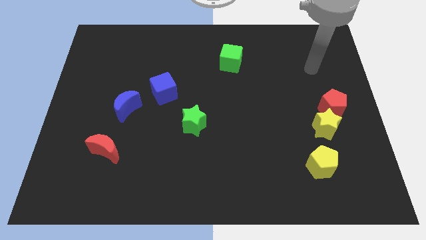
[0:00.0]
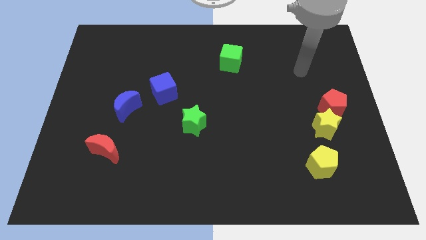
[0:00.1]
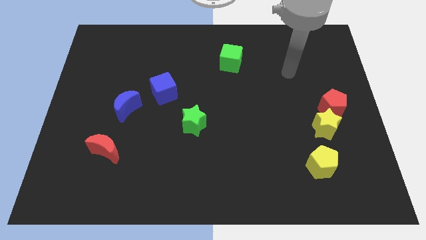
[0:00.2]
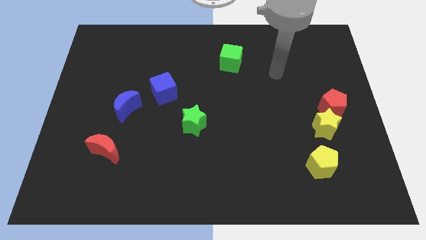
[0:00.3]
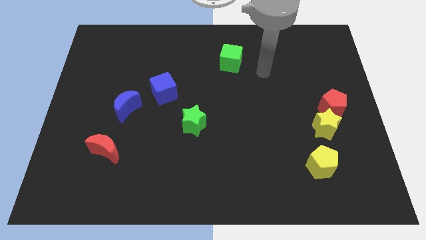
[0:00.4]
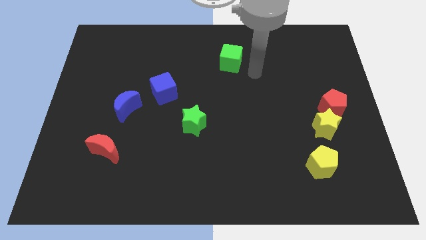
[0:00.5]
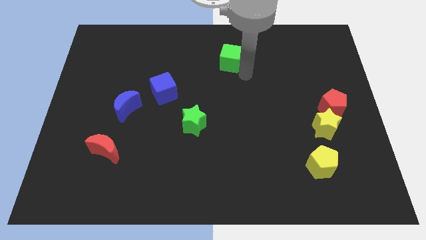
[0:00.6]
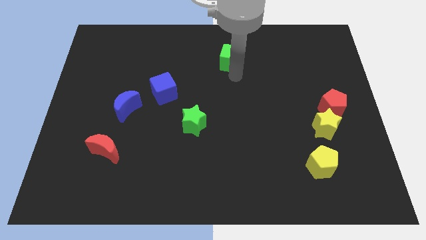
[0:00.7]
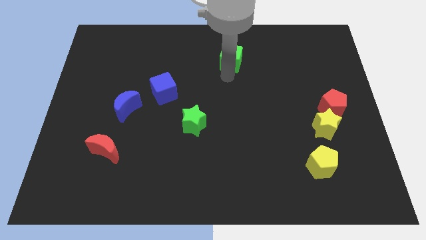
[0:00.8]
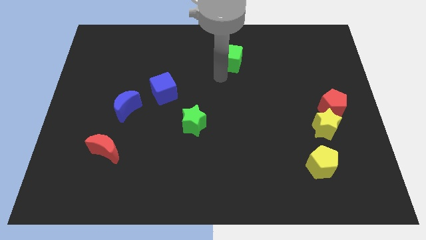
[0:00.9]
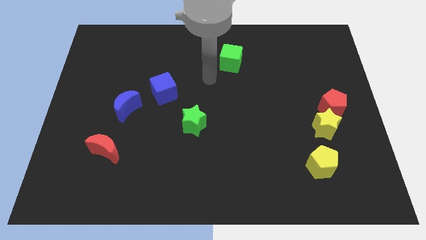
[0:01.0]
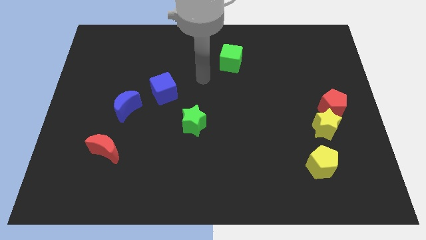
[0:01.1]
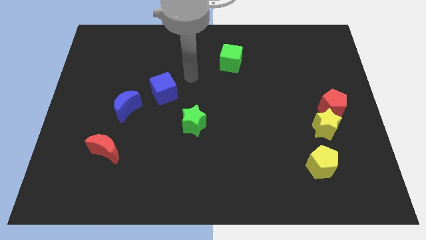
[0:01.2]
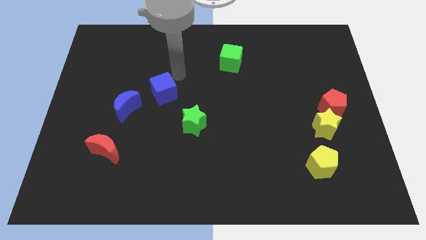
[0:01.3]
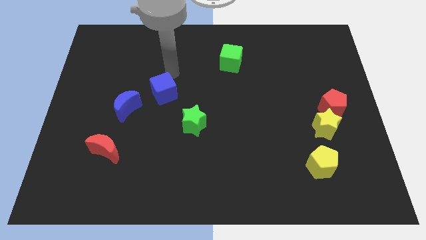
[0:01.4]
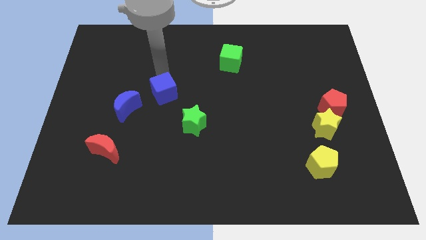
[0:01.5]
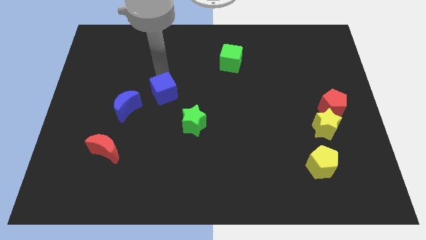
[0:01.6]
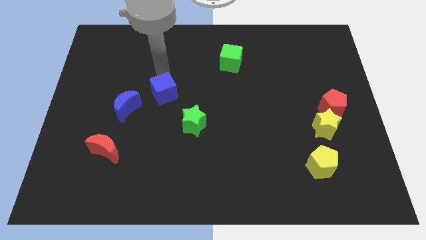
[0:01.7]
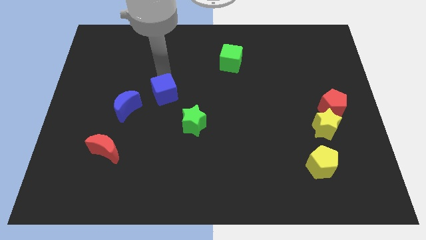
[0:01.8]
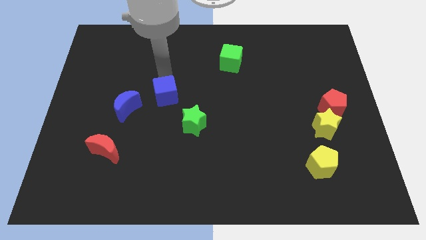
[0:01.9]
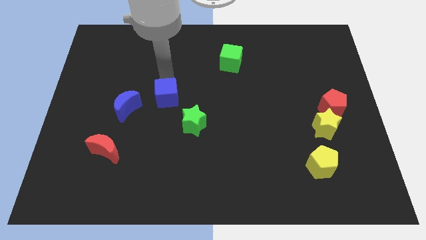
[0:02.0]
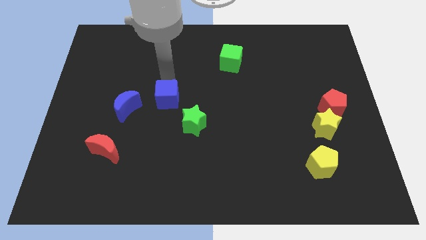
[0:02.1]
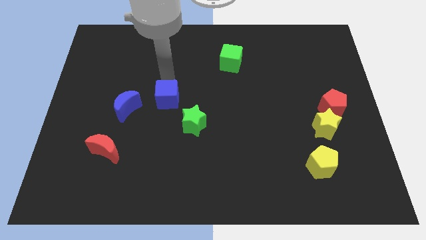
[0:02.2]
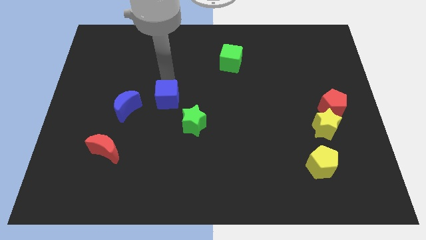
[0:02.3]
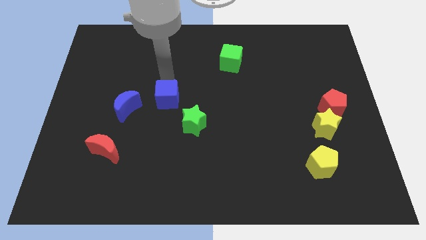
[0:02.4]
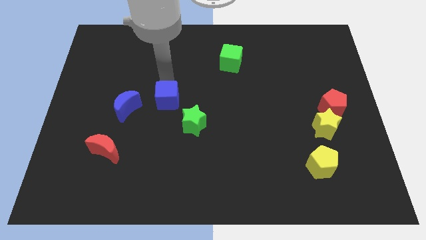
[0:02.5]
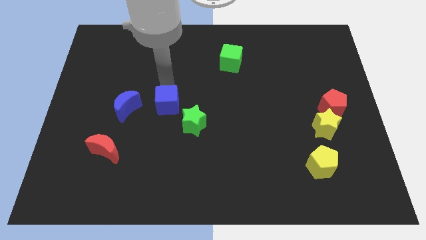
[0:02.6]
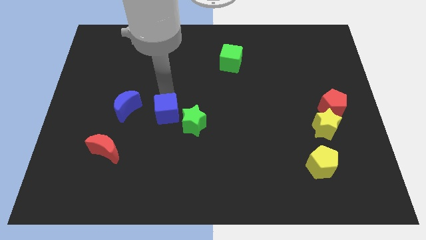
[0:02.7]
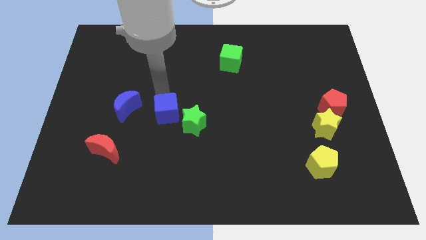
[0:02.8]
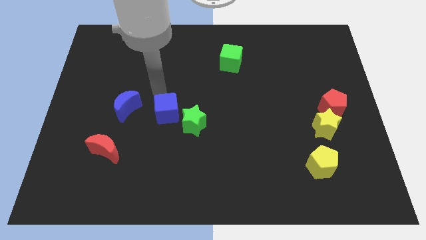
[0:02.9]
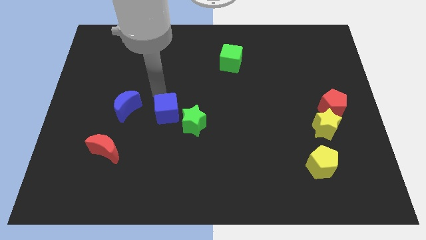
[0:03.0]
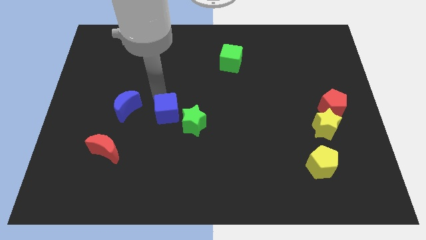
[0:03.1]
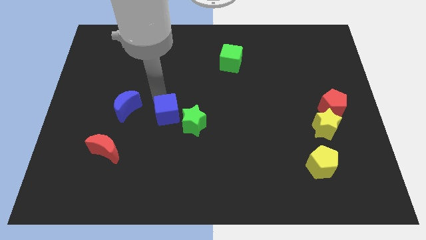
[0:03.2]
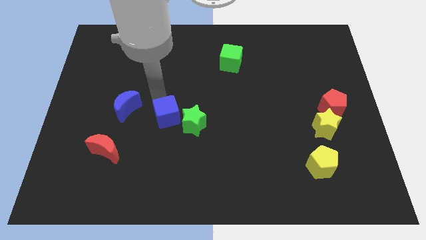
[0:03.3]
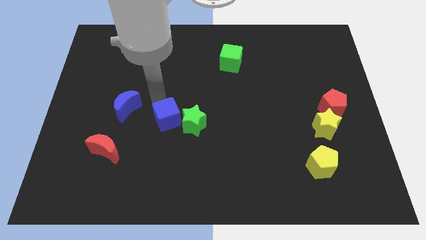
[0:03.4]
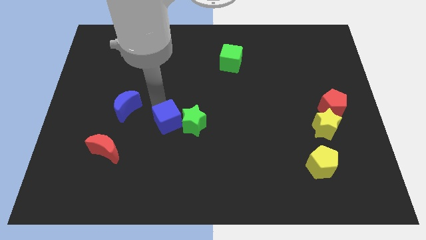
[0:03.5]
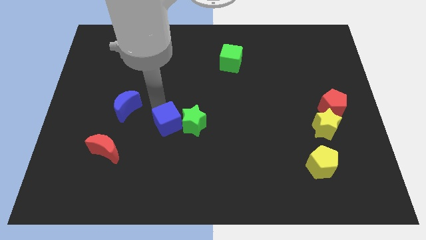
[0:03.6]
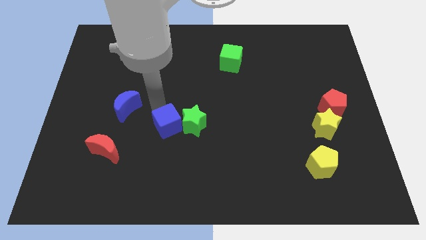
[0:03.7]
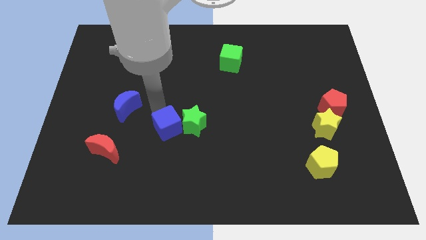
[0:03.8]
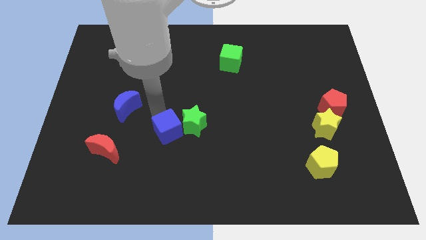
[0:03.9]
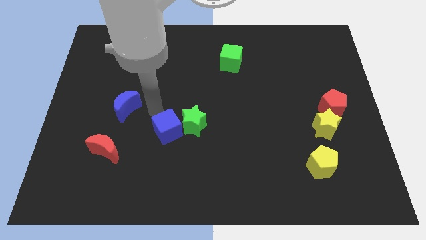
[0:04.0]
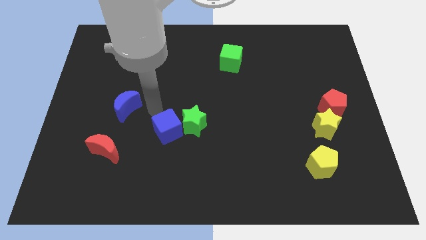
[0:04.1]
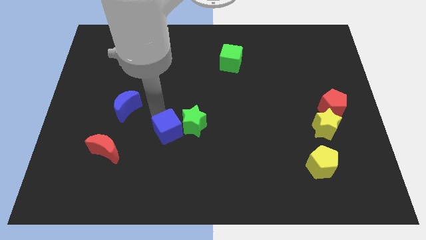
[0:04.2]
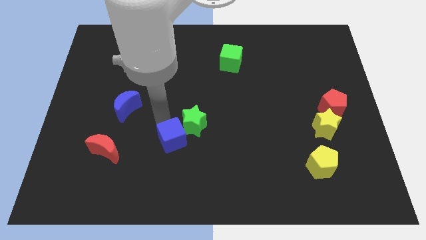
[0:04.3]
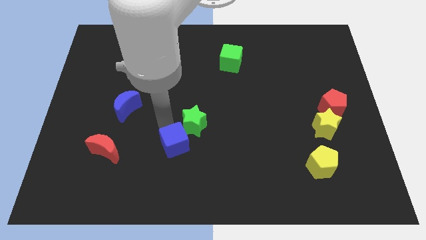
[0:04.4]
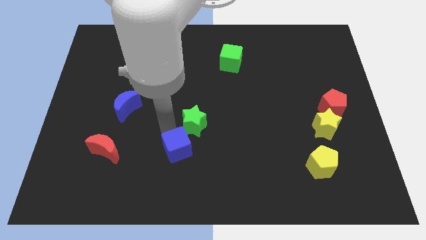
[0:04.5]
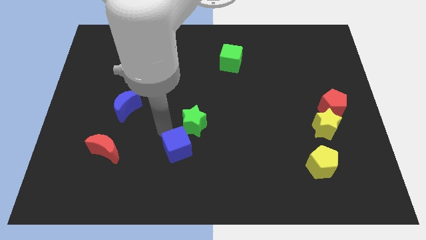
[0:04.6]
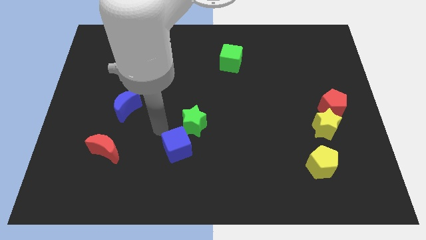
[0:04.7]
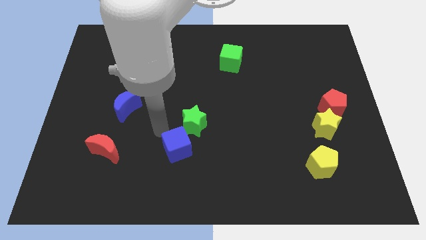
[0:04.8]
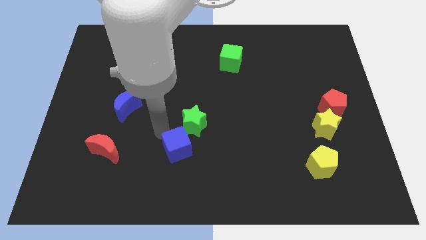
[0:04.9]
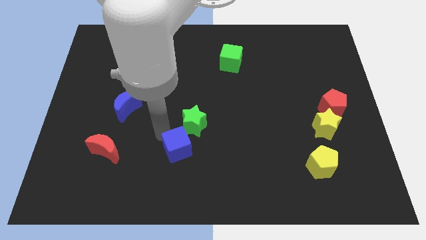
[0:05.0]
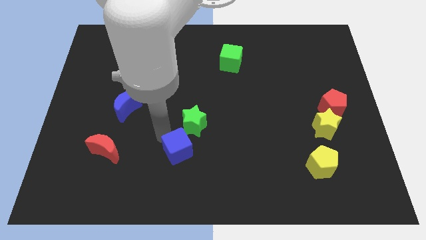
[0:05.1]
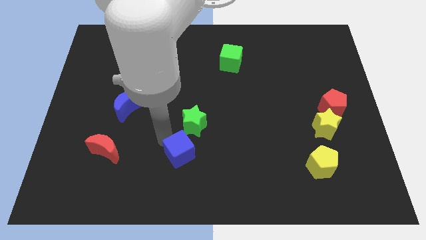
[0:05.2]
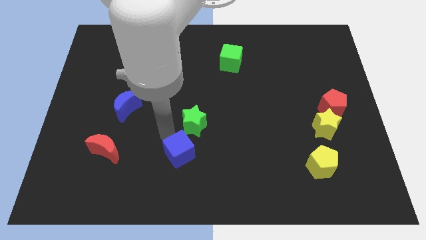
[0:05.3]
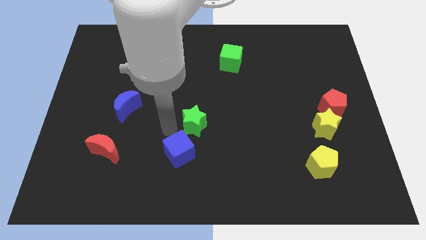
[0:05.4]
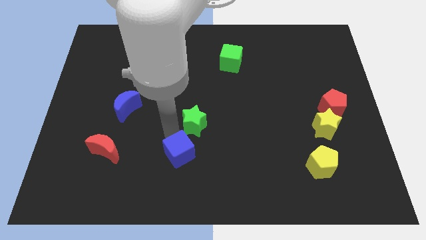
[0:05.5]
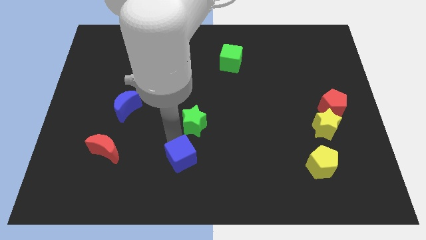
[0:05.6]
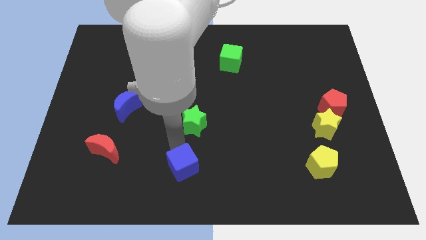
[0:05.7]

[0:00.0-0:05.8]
put the blue cube to the bottom side

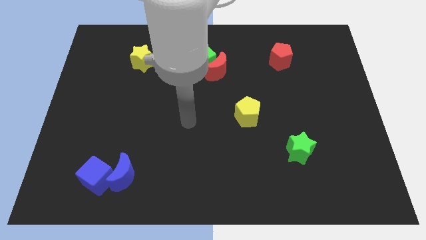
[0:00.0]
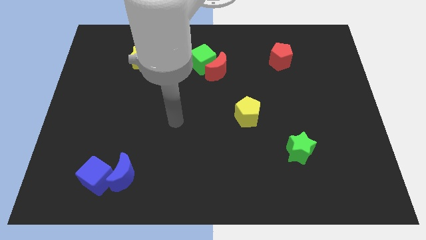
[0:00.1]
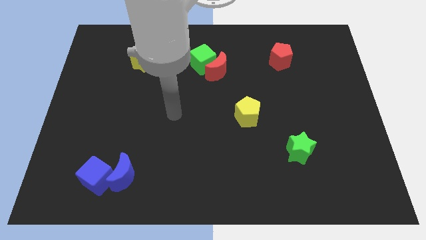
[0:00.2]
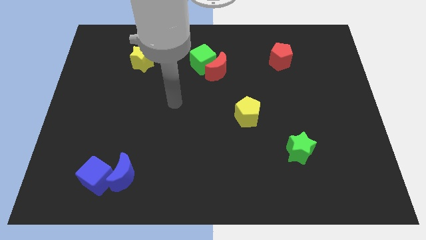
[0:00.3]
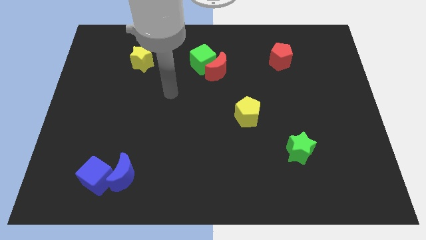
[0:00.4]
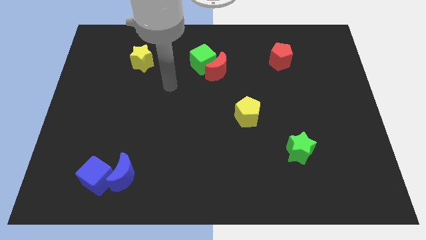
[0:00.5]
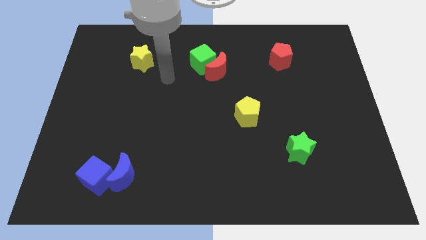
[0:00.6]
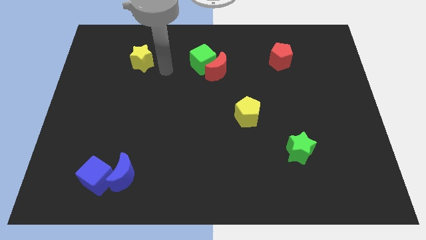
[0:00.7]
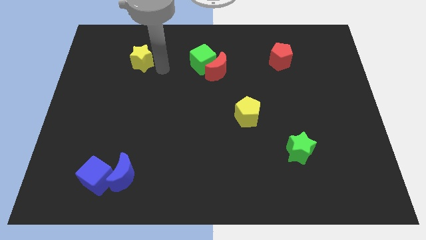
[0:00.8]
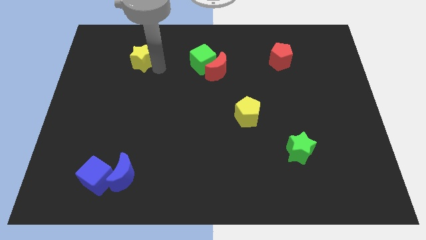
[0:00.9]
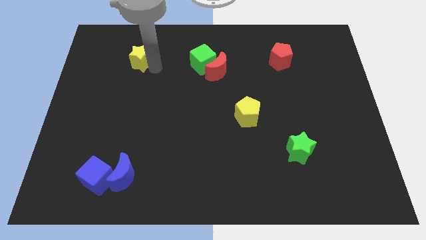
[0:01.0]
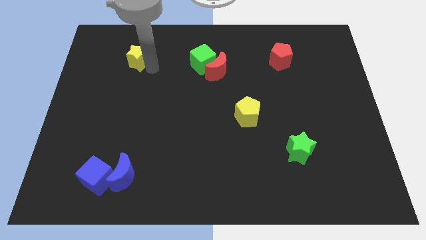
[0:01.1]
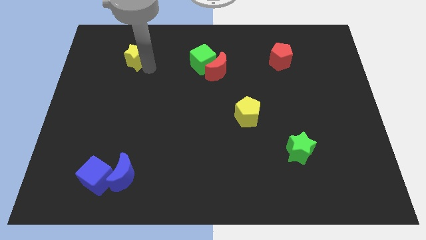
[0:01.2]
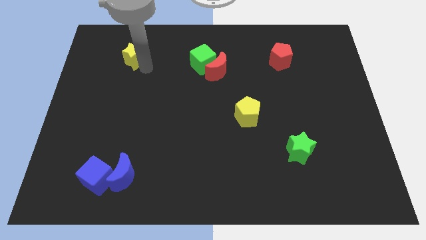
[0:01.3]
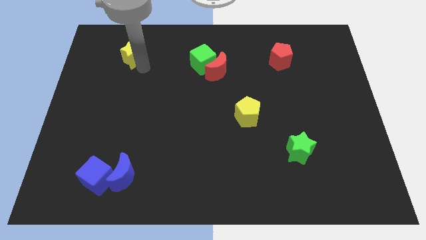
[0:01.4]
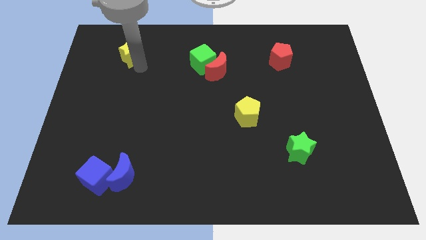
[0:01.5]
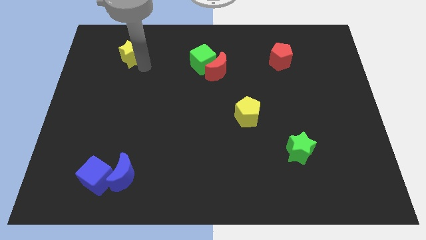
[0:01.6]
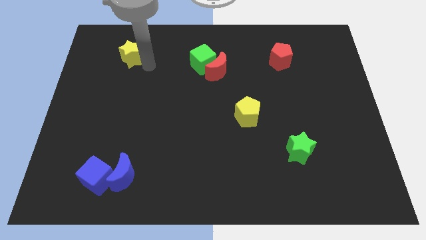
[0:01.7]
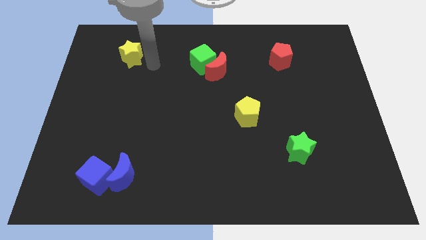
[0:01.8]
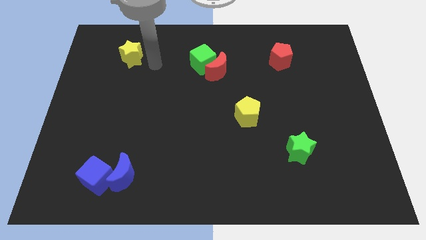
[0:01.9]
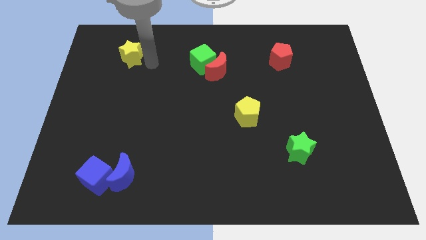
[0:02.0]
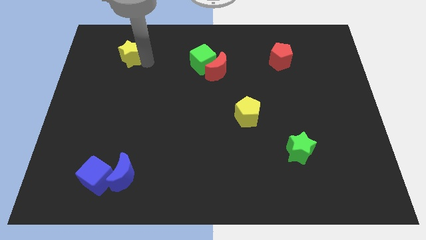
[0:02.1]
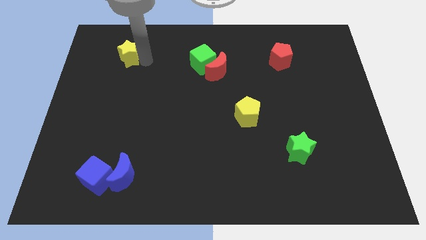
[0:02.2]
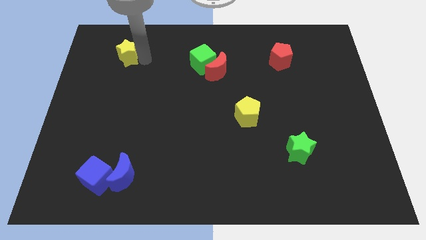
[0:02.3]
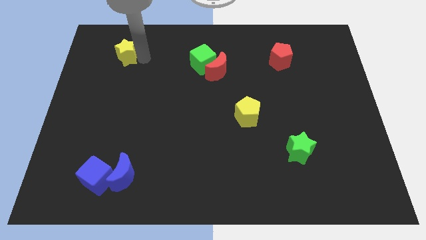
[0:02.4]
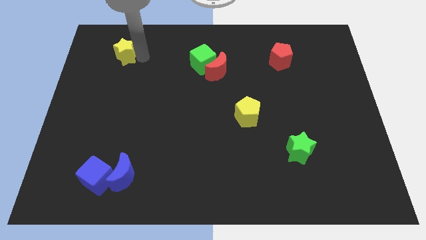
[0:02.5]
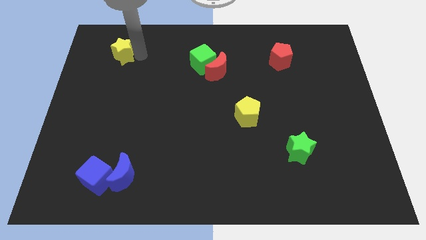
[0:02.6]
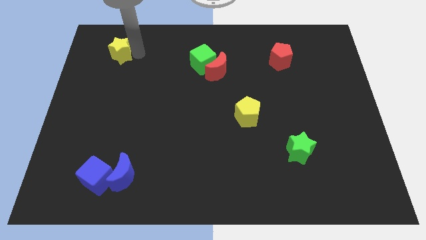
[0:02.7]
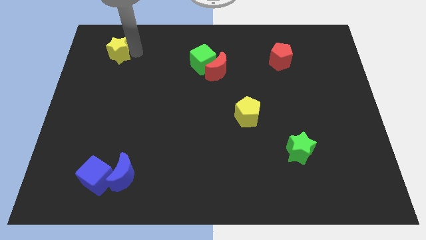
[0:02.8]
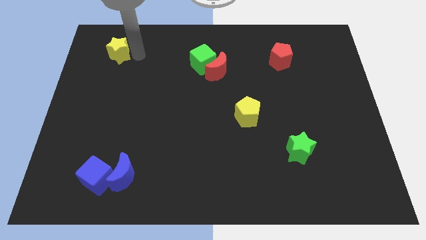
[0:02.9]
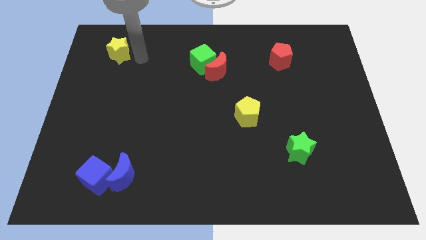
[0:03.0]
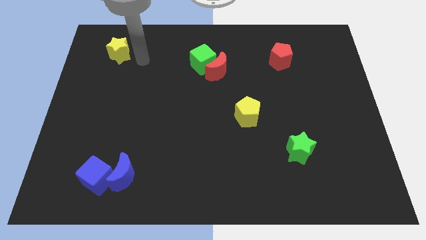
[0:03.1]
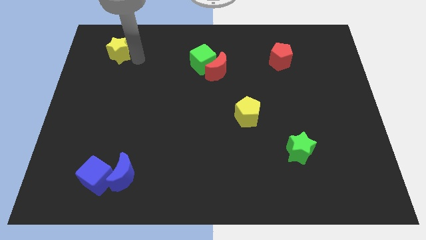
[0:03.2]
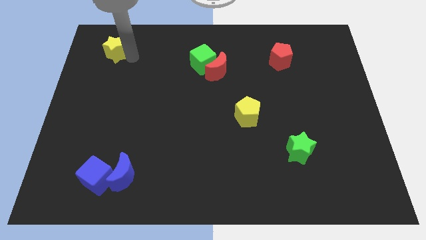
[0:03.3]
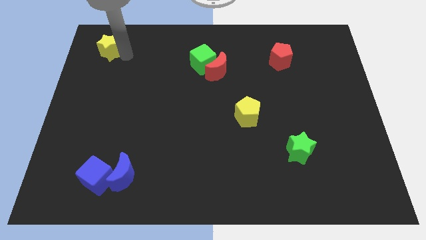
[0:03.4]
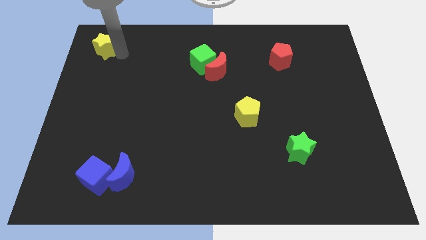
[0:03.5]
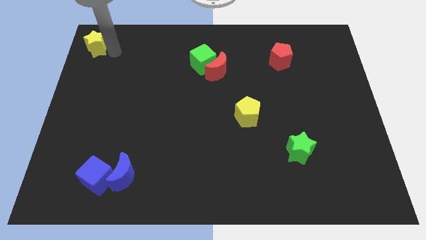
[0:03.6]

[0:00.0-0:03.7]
move the yellow star to the top left
